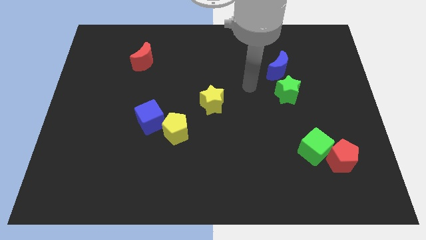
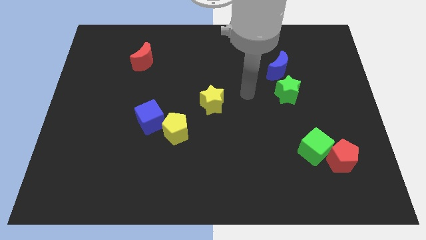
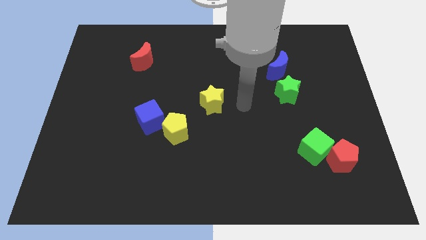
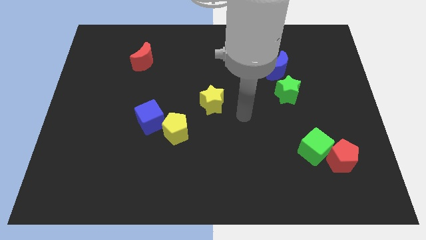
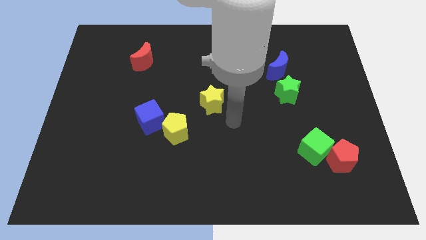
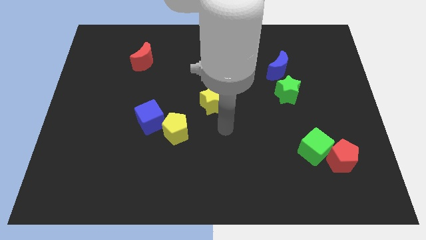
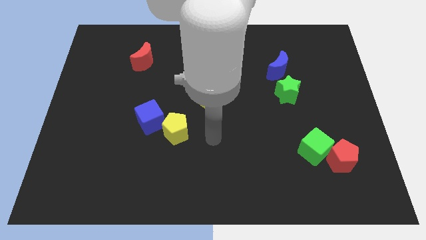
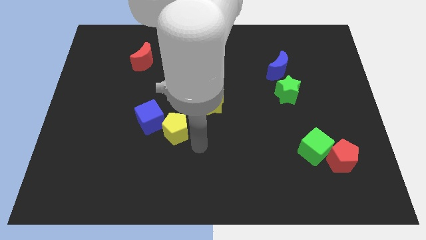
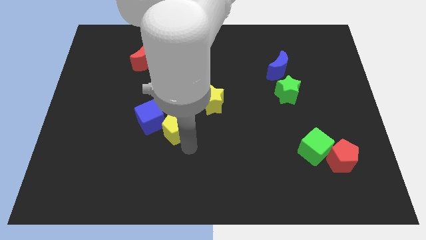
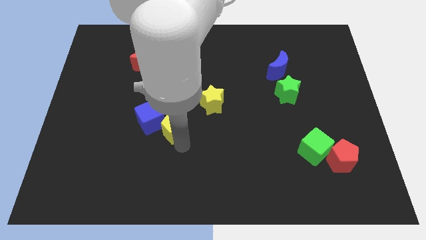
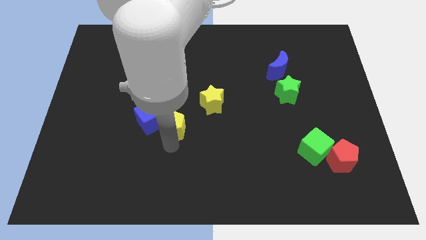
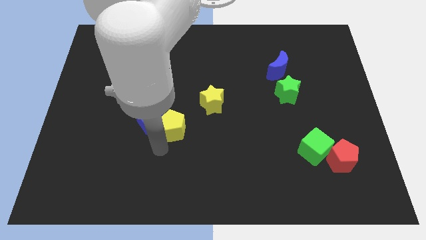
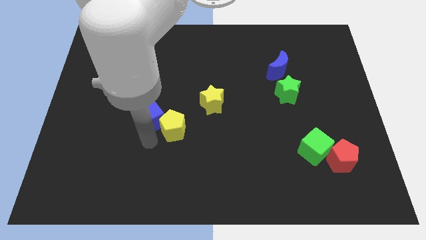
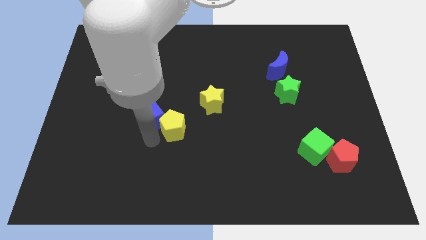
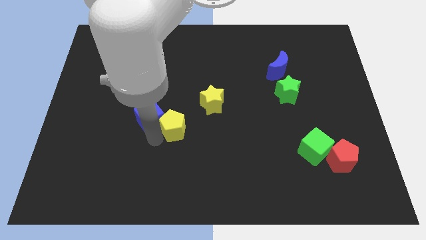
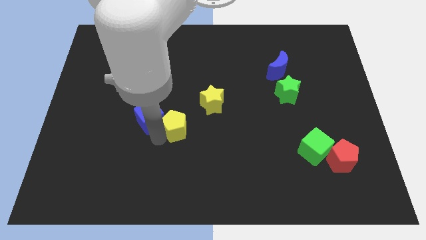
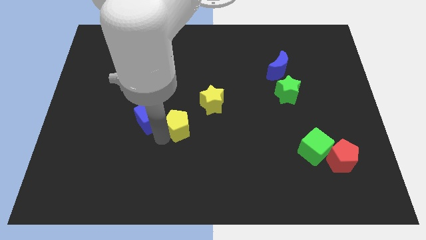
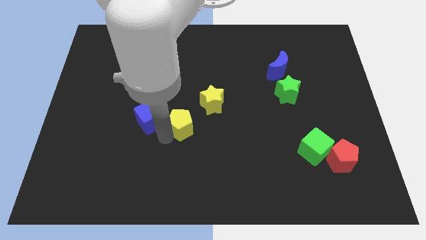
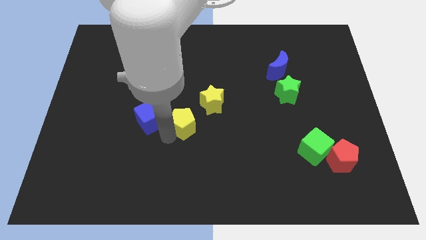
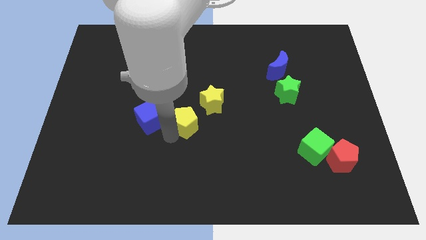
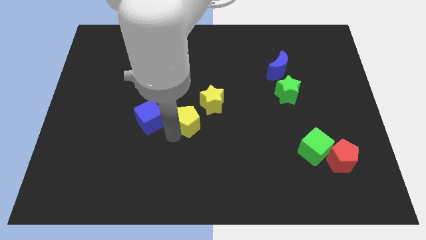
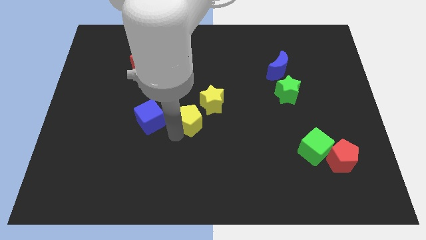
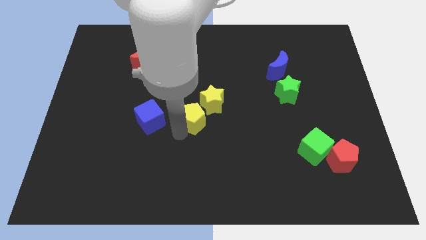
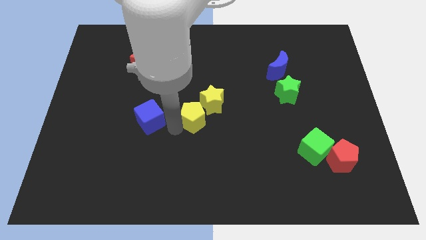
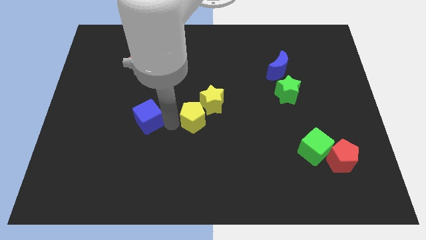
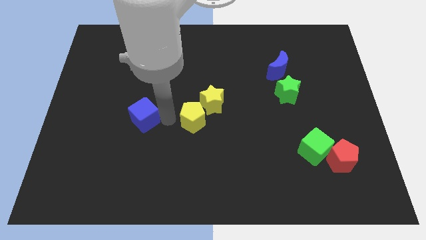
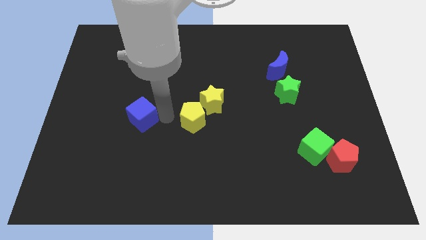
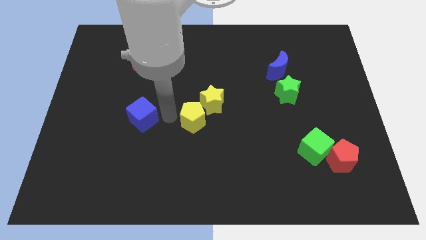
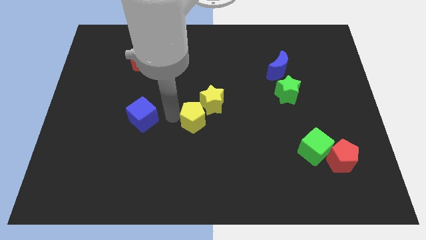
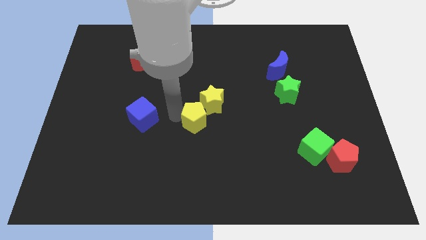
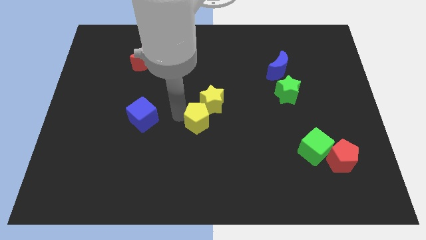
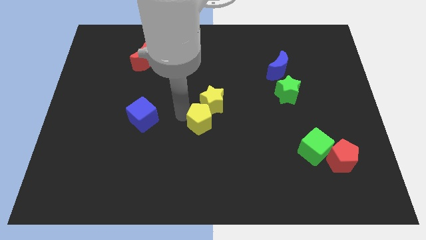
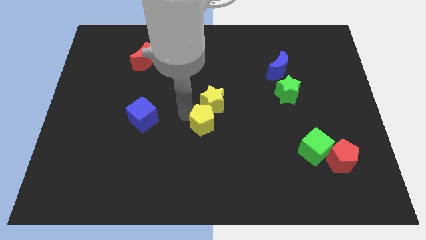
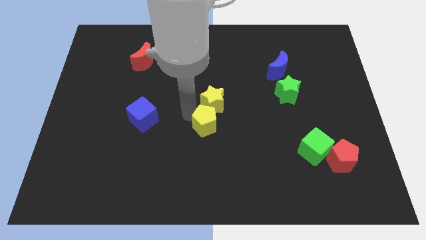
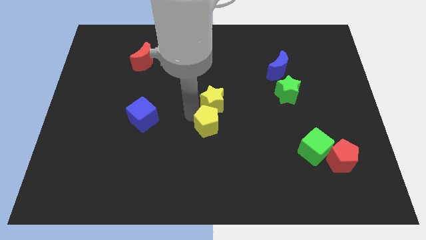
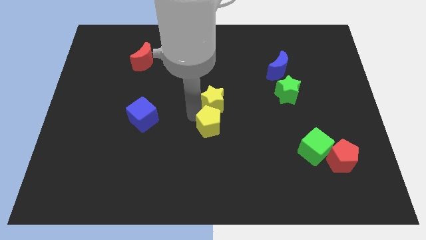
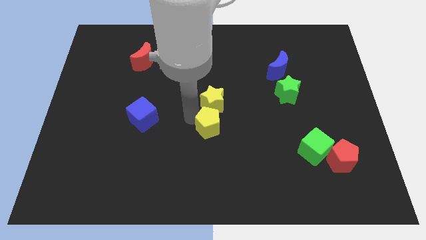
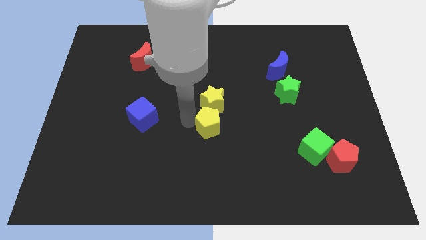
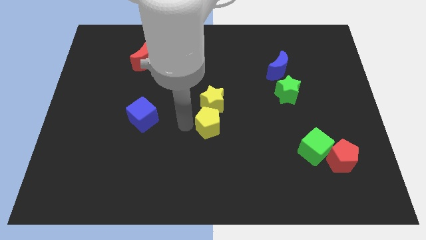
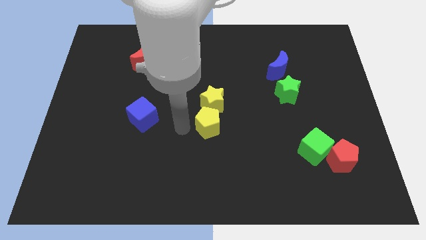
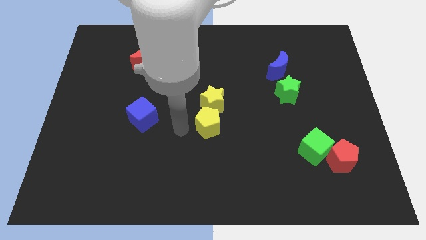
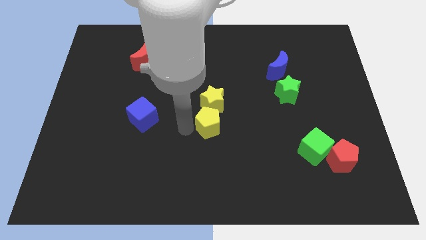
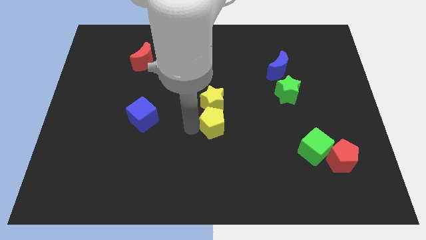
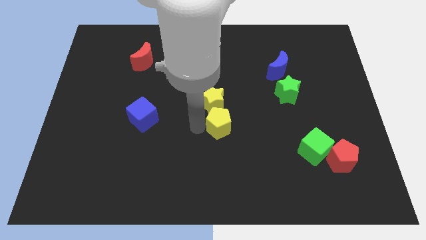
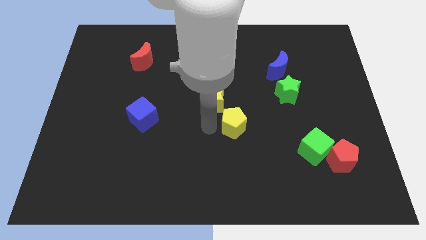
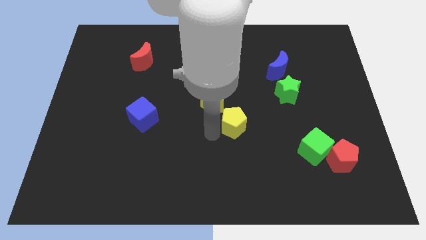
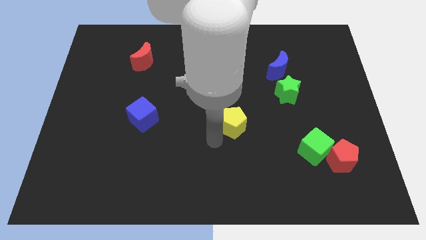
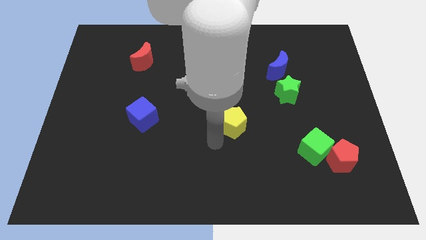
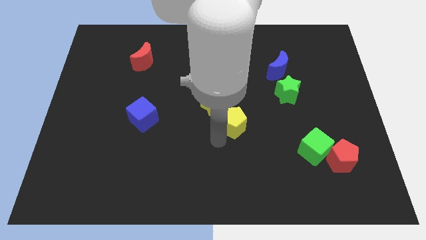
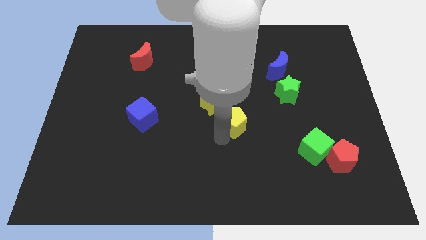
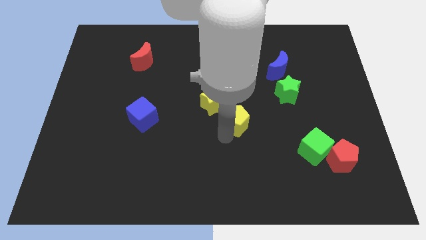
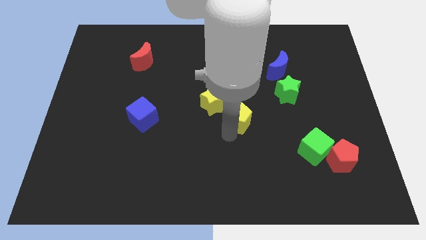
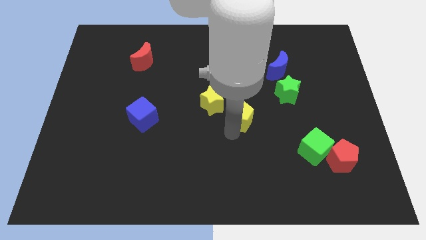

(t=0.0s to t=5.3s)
slide the yellow pentagon right of the yellow star

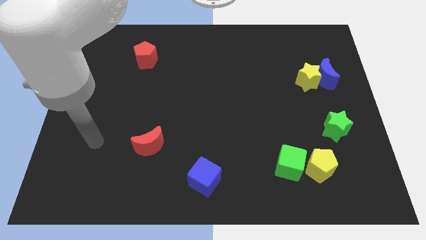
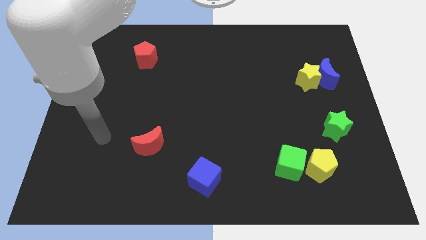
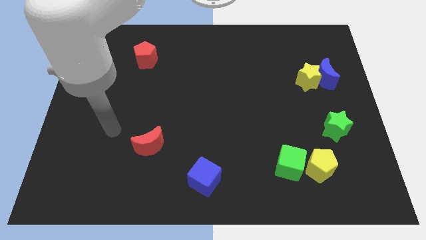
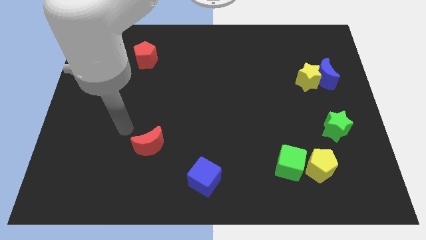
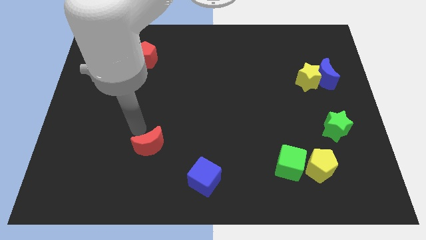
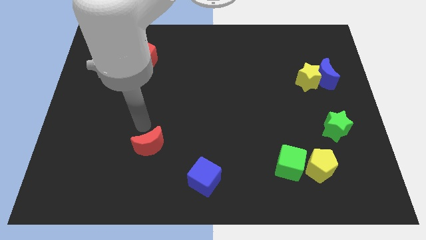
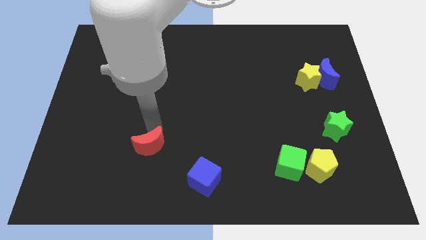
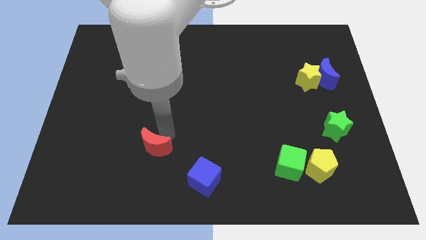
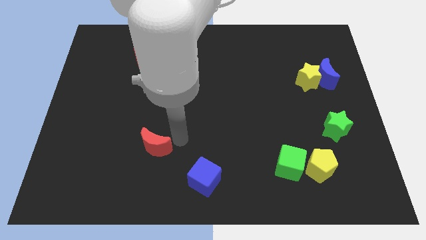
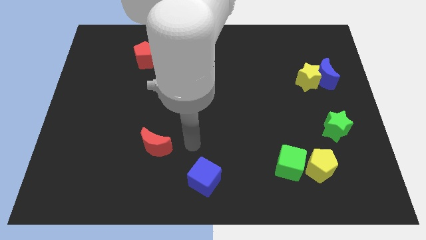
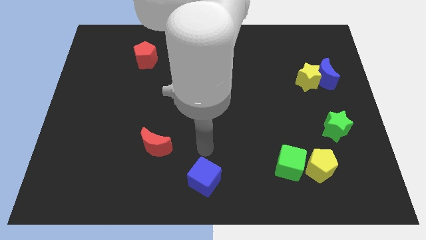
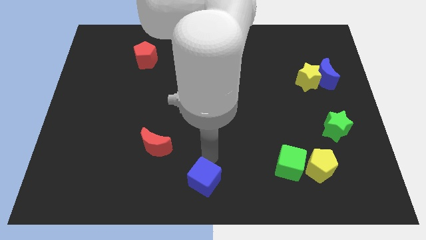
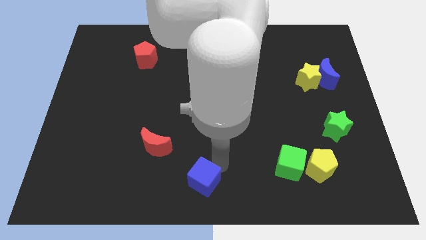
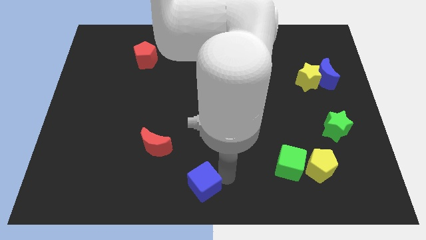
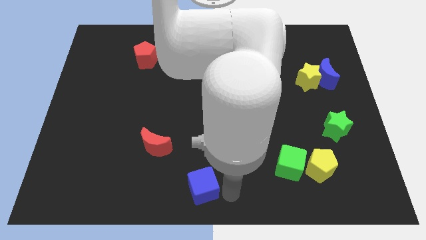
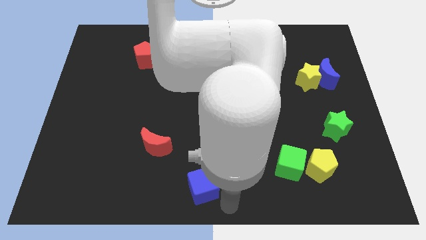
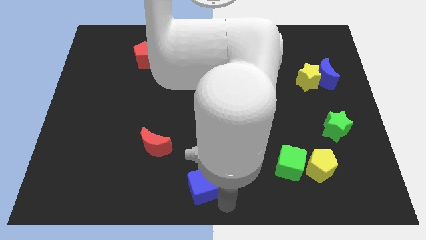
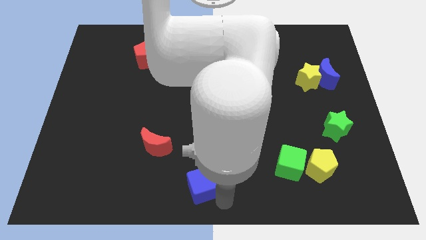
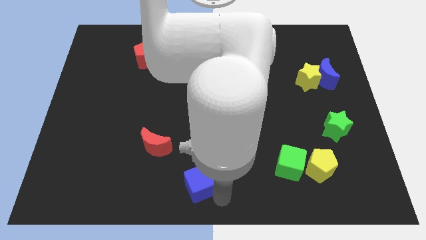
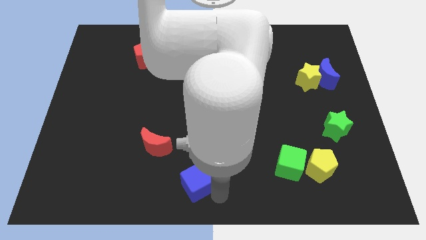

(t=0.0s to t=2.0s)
put the blue cube diagonally down and to the right of the red moon
